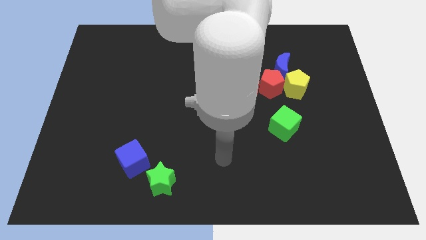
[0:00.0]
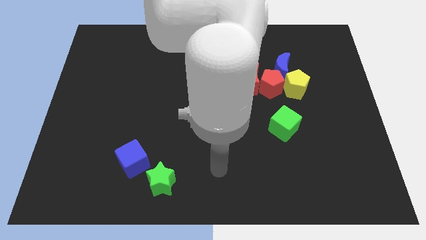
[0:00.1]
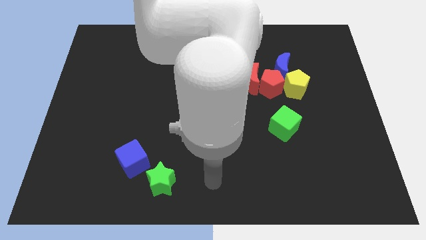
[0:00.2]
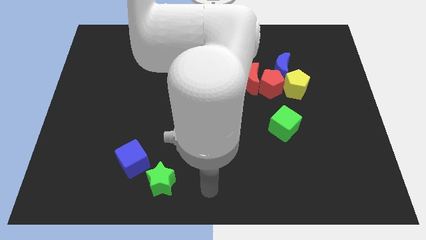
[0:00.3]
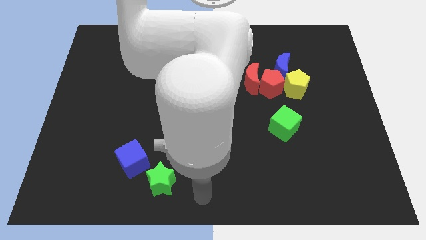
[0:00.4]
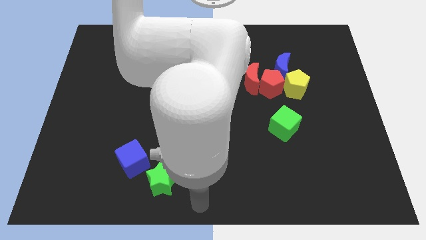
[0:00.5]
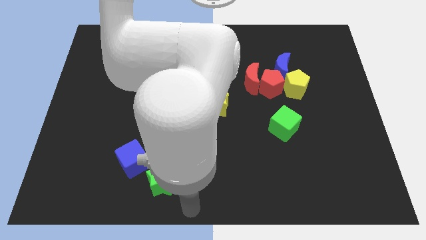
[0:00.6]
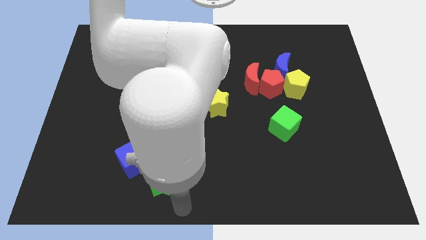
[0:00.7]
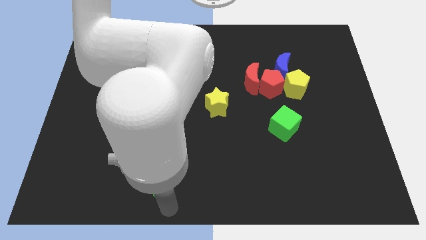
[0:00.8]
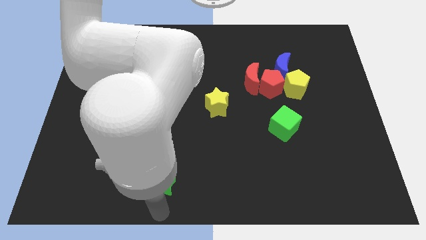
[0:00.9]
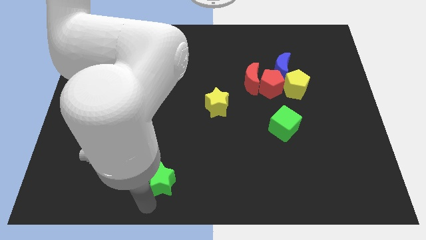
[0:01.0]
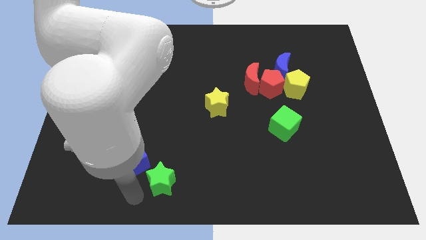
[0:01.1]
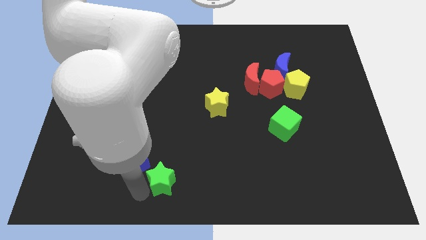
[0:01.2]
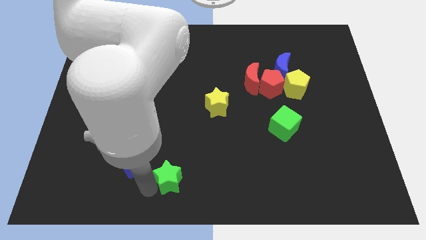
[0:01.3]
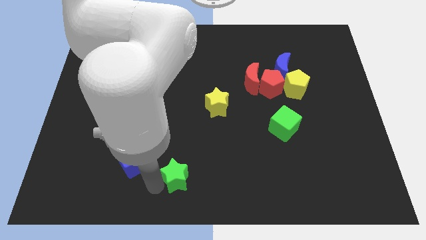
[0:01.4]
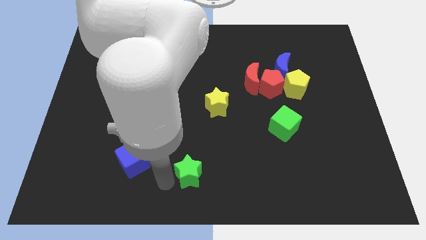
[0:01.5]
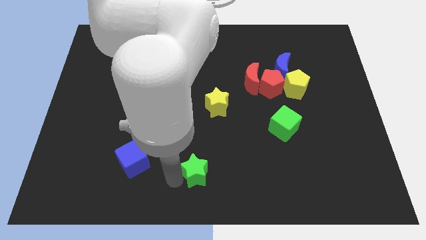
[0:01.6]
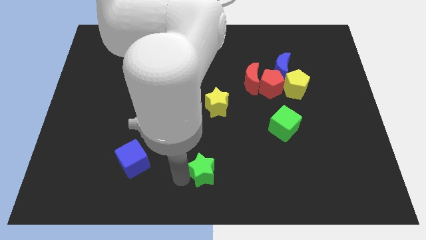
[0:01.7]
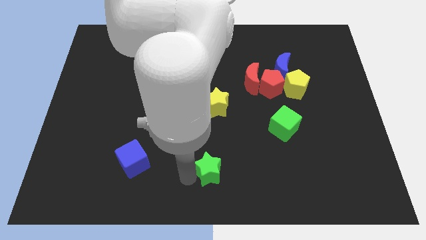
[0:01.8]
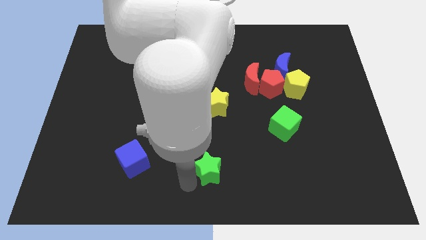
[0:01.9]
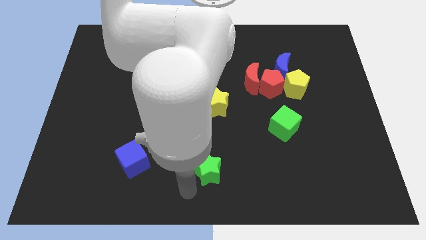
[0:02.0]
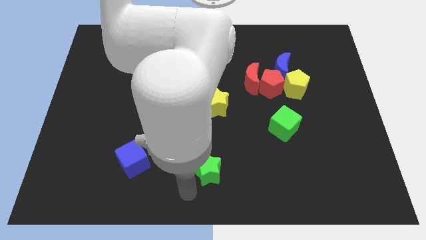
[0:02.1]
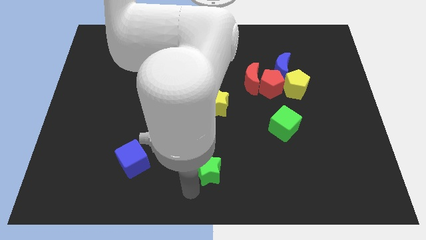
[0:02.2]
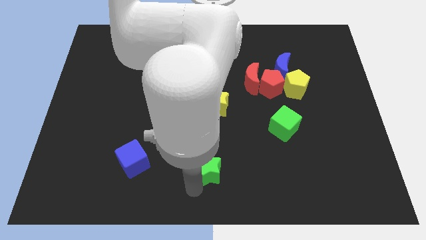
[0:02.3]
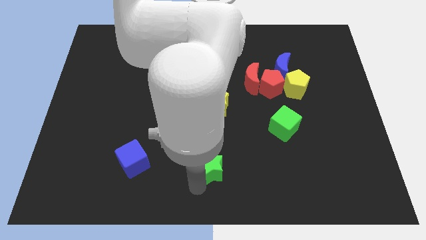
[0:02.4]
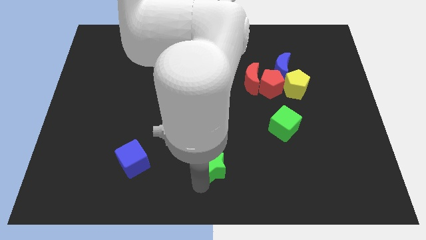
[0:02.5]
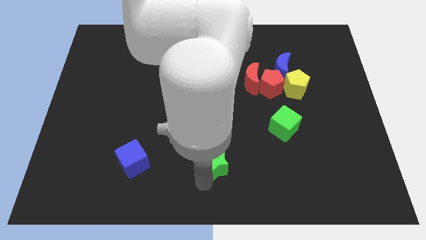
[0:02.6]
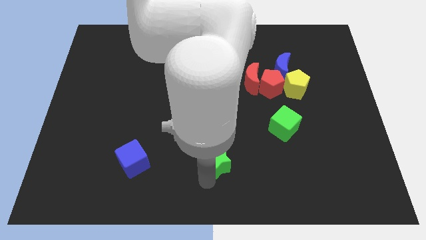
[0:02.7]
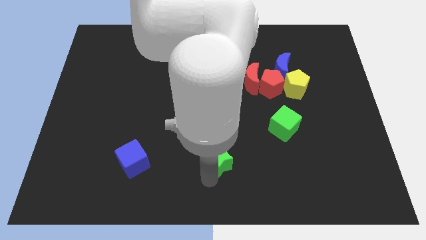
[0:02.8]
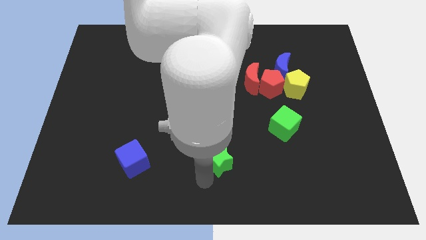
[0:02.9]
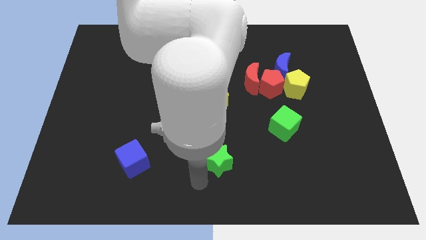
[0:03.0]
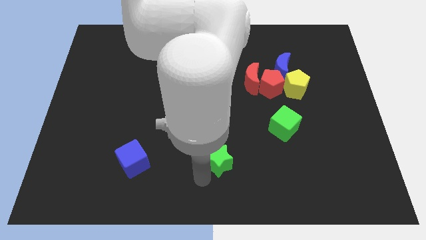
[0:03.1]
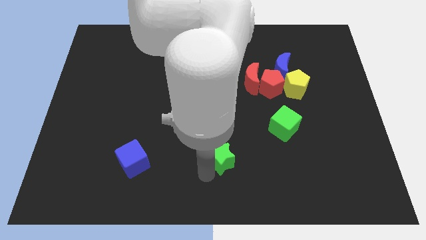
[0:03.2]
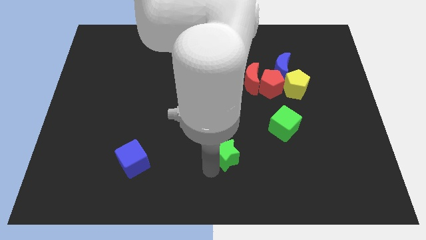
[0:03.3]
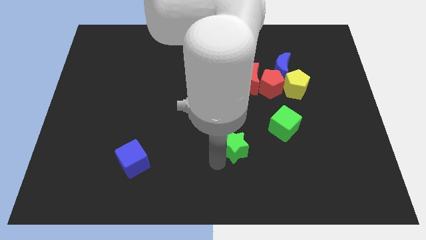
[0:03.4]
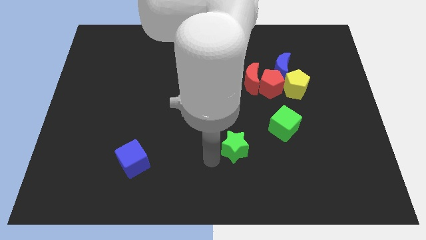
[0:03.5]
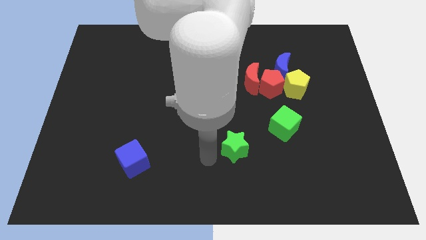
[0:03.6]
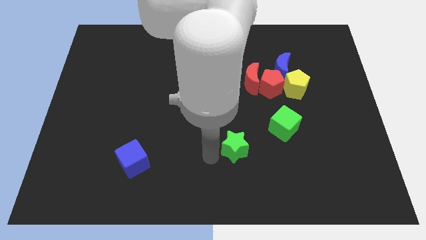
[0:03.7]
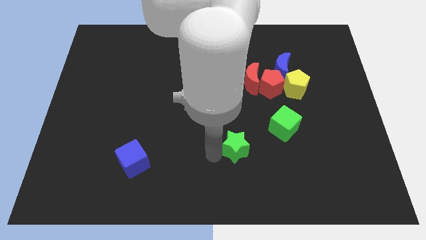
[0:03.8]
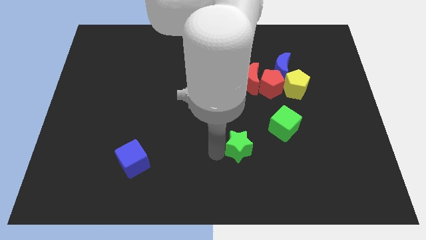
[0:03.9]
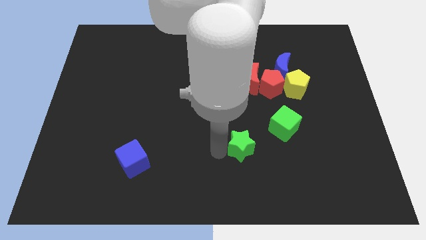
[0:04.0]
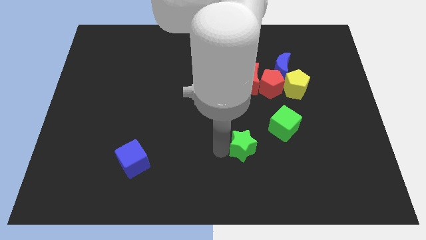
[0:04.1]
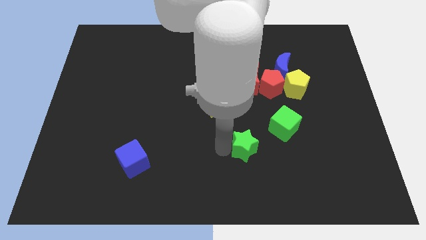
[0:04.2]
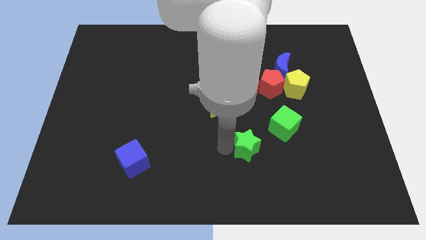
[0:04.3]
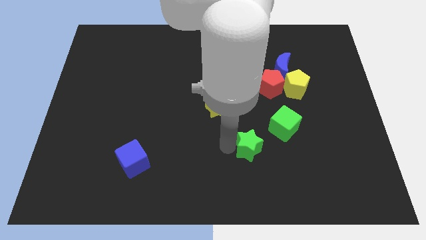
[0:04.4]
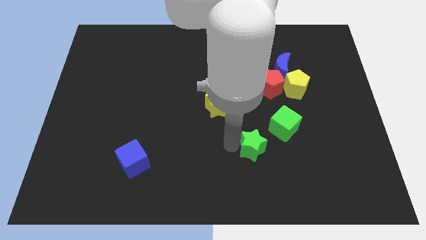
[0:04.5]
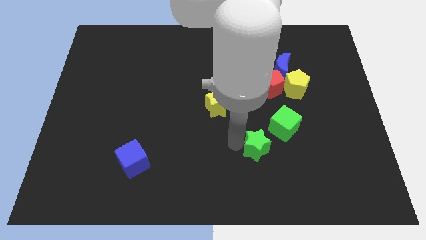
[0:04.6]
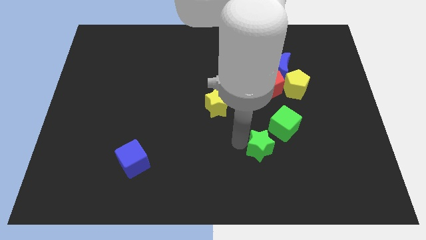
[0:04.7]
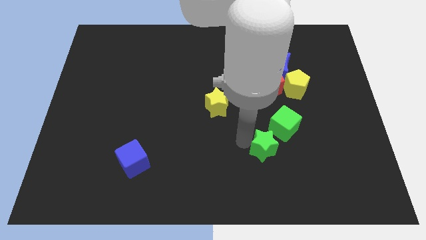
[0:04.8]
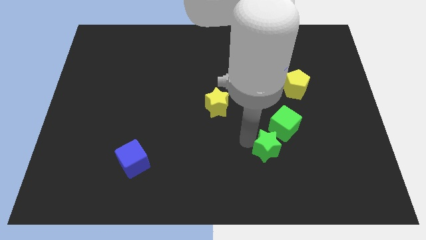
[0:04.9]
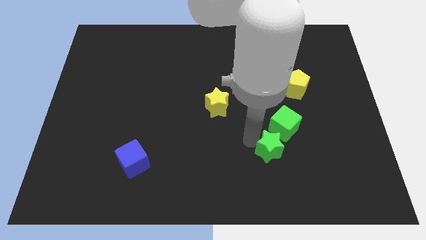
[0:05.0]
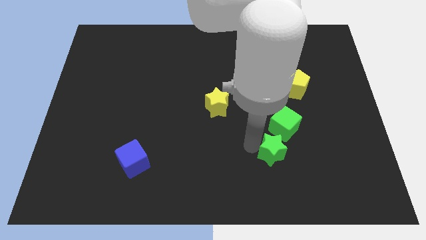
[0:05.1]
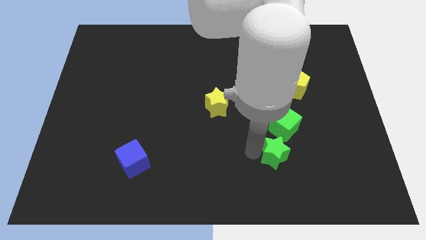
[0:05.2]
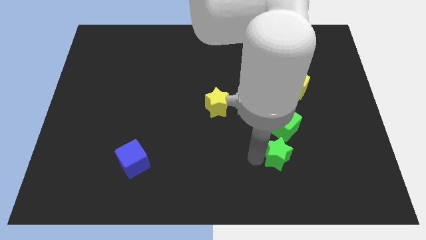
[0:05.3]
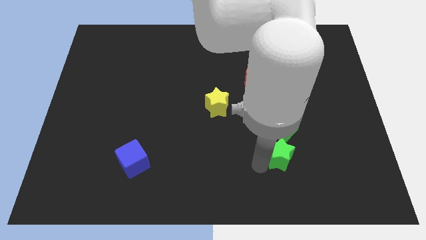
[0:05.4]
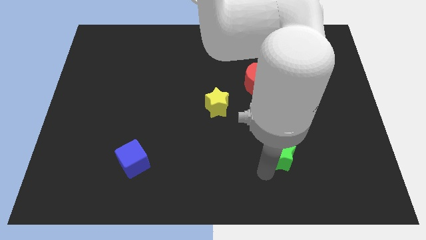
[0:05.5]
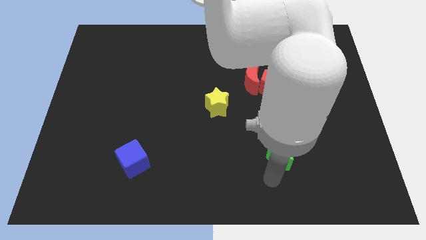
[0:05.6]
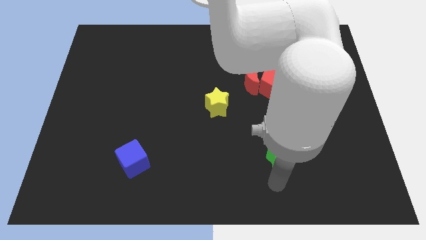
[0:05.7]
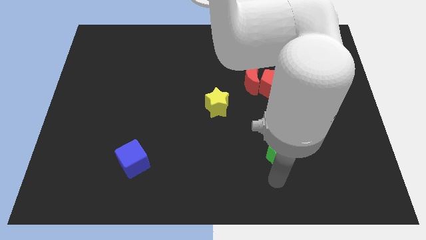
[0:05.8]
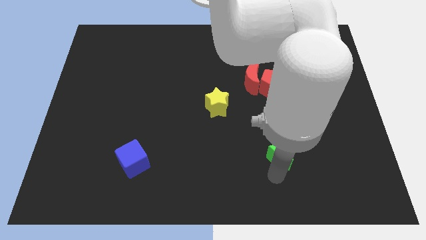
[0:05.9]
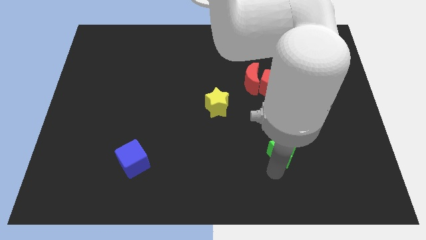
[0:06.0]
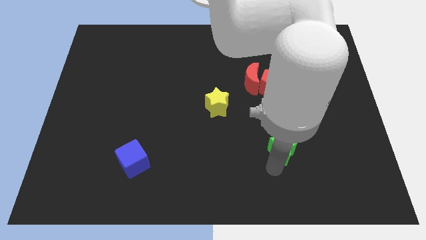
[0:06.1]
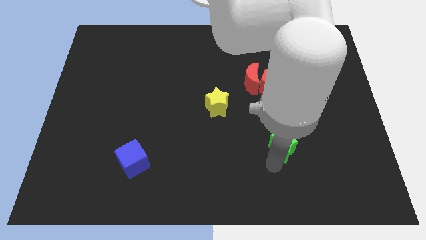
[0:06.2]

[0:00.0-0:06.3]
slide the green star to the green cube

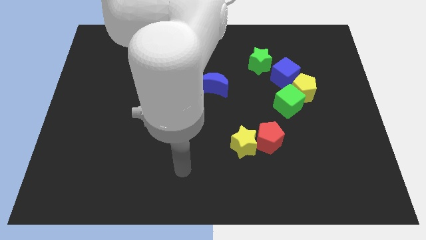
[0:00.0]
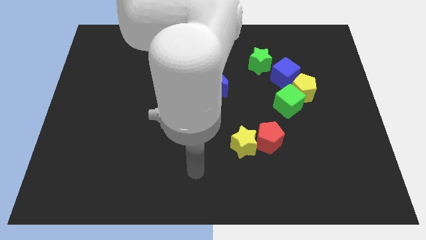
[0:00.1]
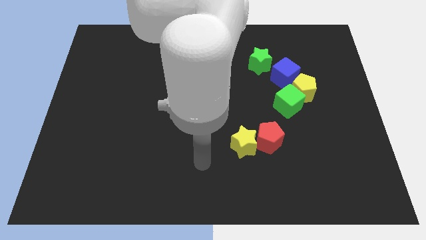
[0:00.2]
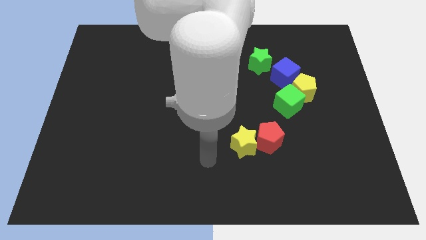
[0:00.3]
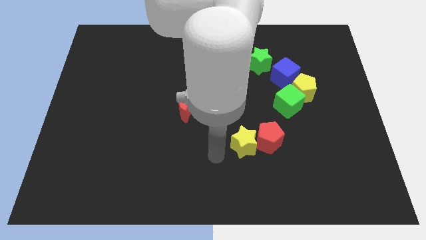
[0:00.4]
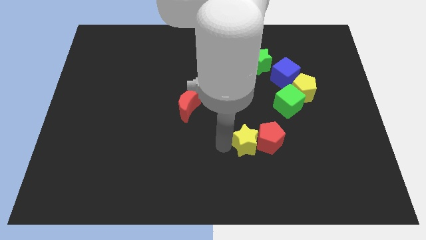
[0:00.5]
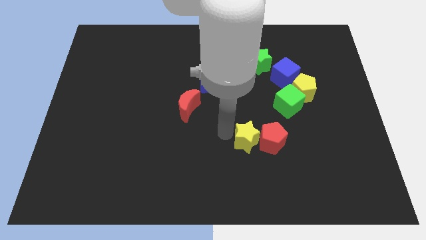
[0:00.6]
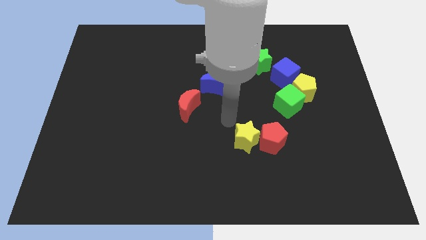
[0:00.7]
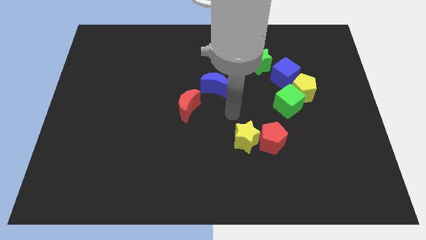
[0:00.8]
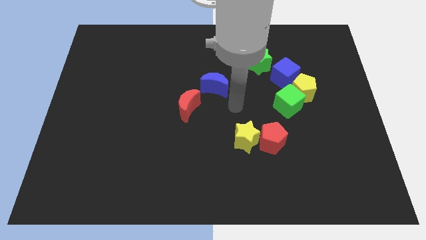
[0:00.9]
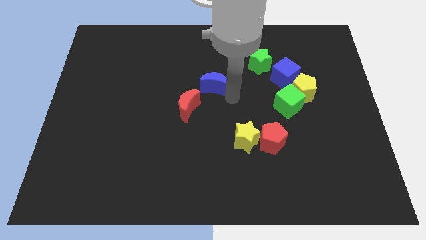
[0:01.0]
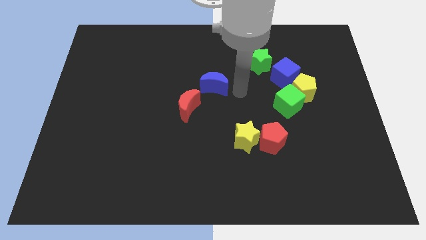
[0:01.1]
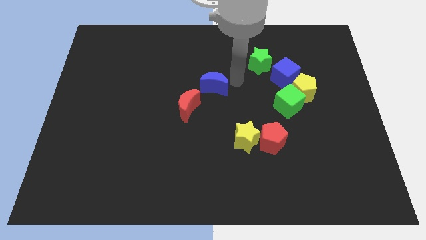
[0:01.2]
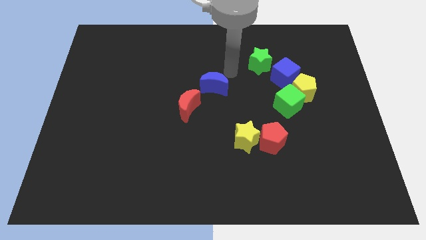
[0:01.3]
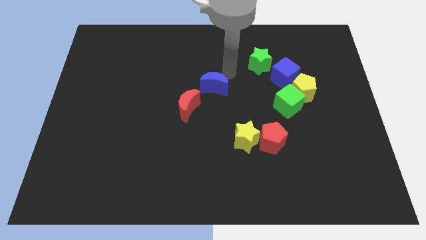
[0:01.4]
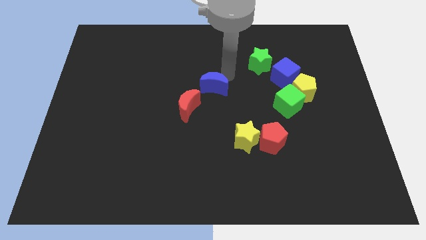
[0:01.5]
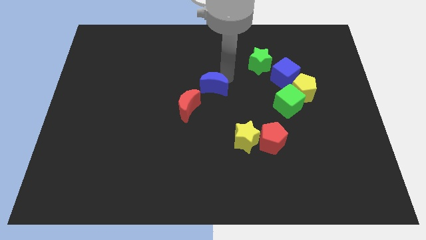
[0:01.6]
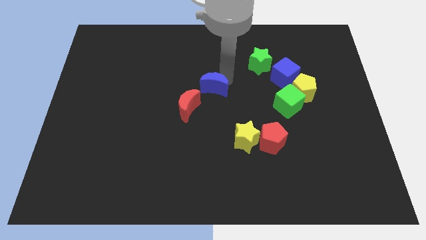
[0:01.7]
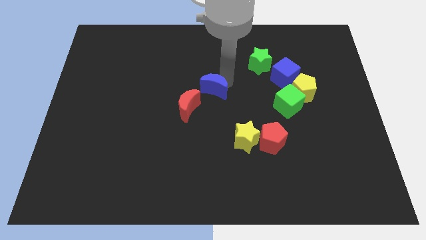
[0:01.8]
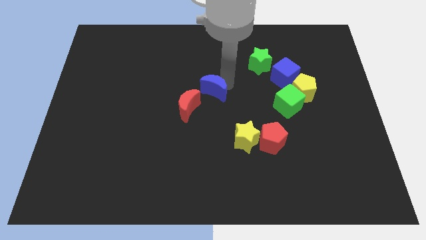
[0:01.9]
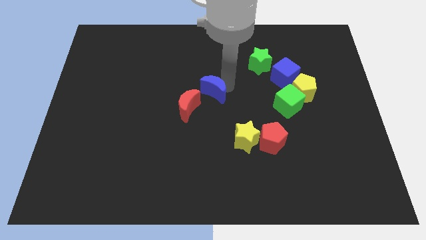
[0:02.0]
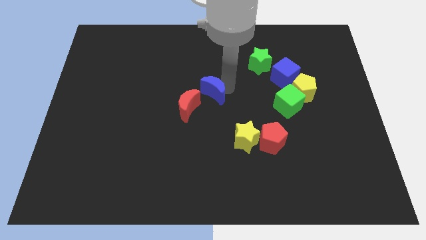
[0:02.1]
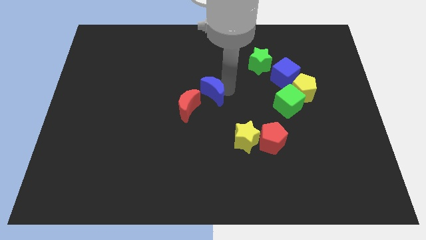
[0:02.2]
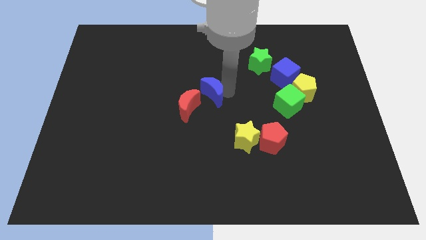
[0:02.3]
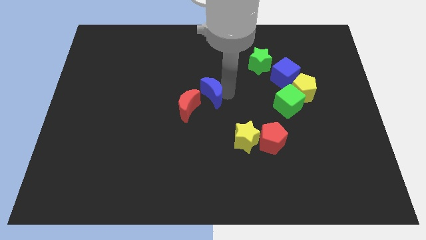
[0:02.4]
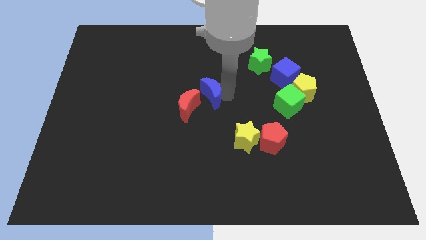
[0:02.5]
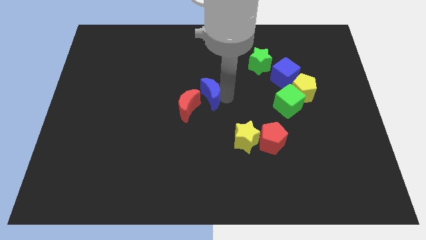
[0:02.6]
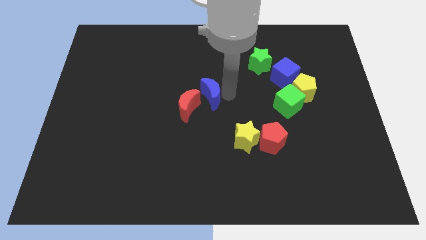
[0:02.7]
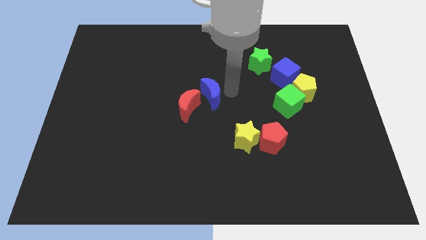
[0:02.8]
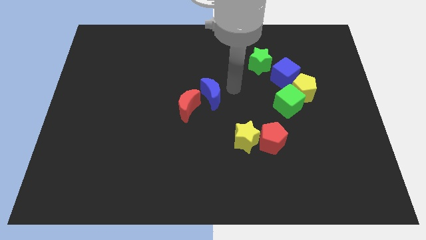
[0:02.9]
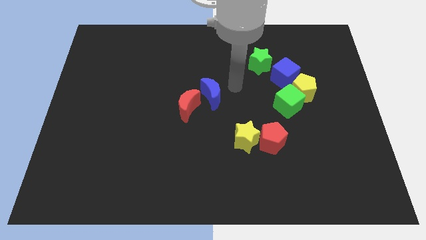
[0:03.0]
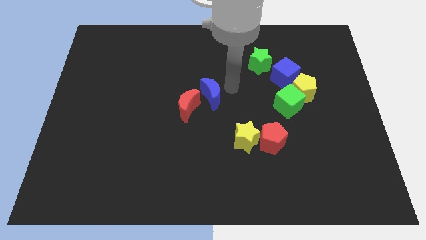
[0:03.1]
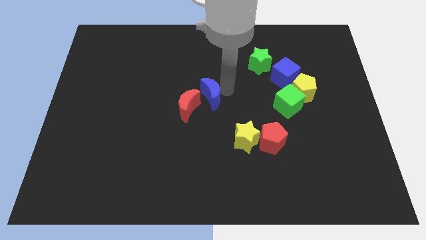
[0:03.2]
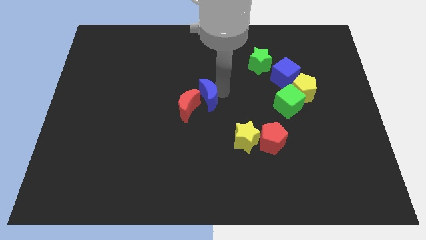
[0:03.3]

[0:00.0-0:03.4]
push the blue moon towards the red moon
